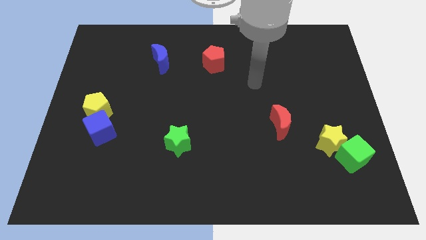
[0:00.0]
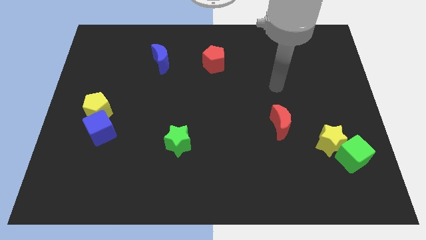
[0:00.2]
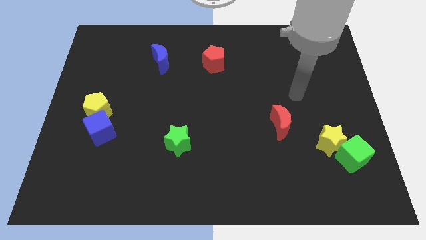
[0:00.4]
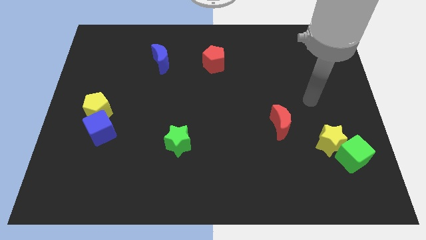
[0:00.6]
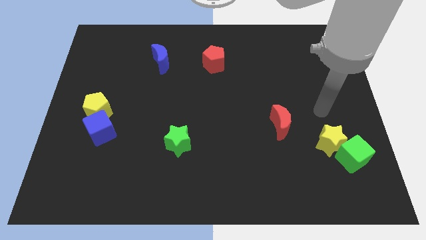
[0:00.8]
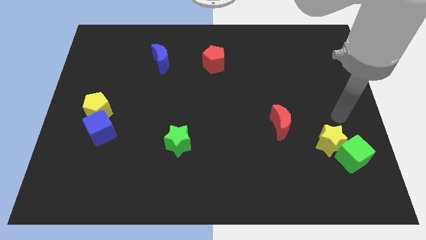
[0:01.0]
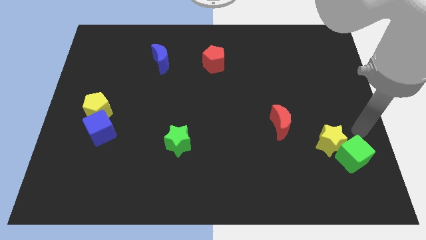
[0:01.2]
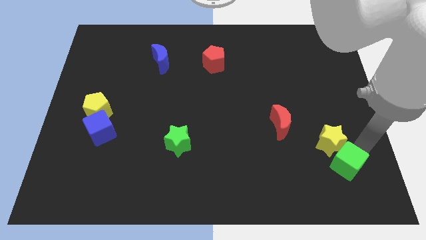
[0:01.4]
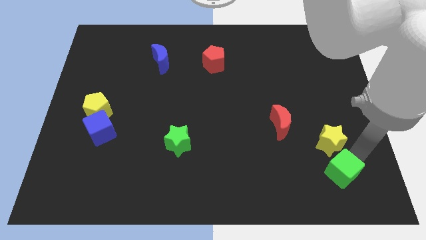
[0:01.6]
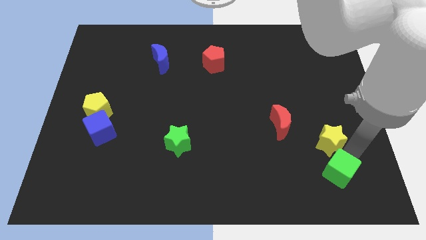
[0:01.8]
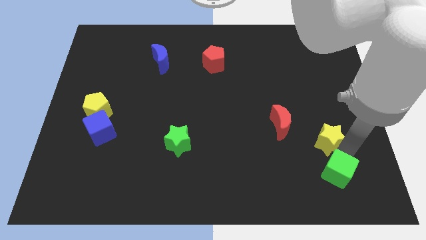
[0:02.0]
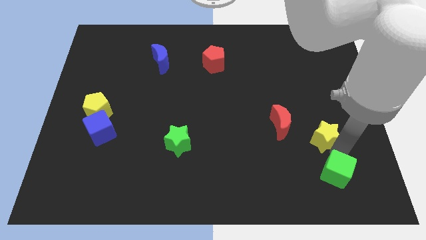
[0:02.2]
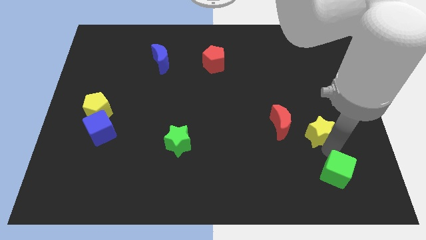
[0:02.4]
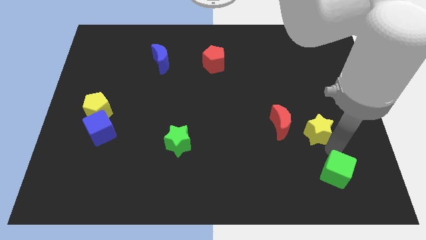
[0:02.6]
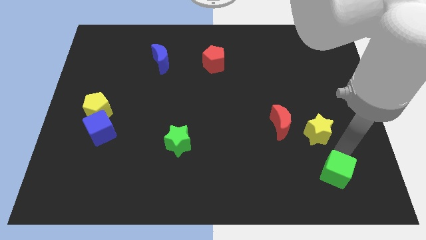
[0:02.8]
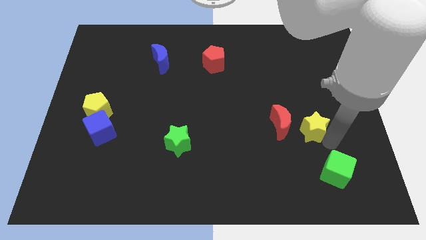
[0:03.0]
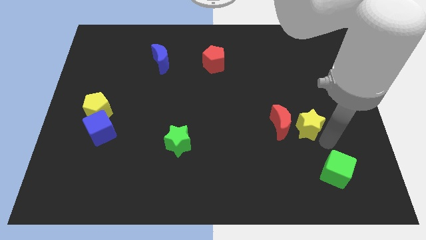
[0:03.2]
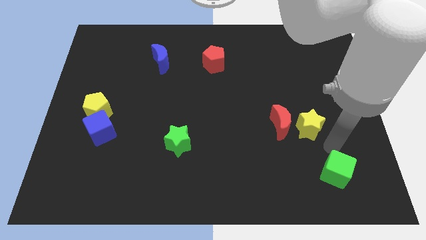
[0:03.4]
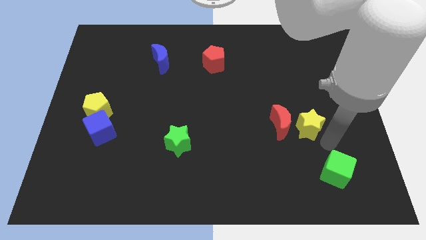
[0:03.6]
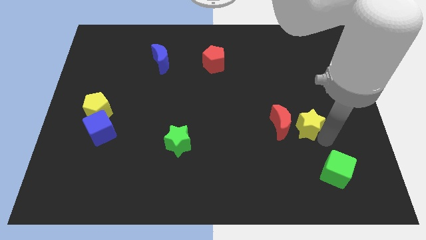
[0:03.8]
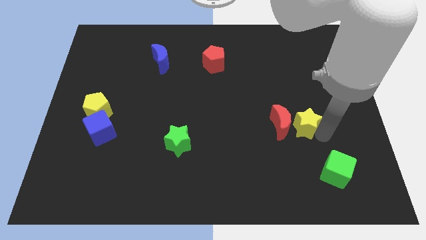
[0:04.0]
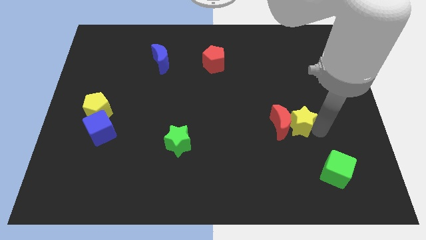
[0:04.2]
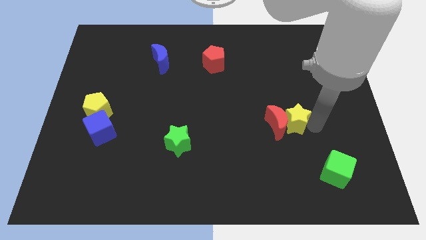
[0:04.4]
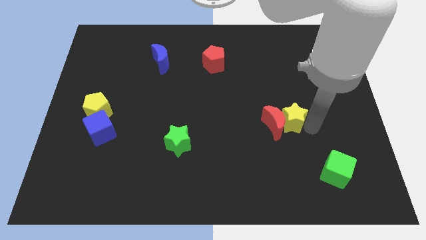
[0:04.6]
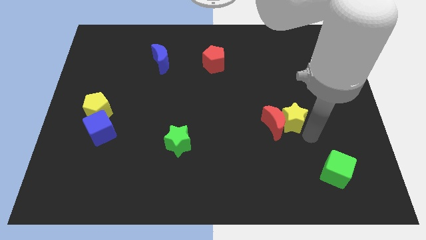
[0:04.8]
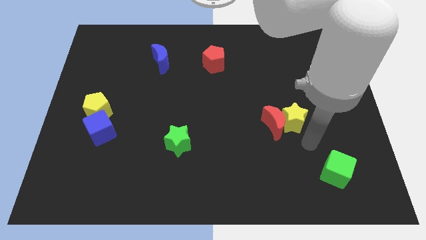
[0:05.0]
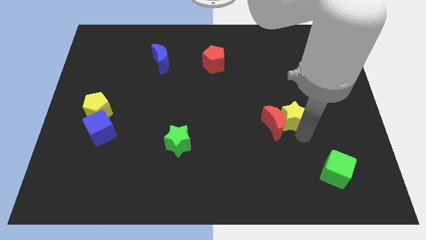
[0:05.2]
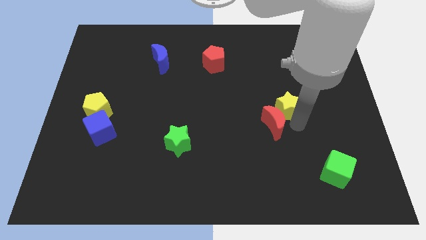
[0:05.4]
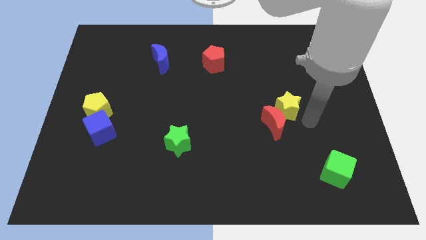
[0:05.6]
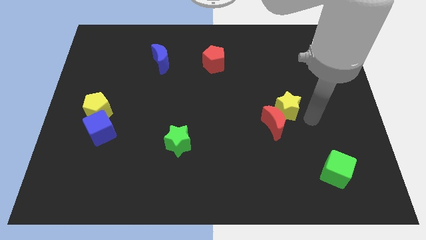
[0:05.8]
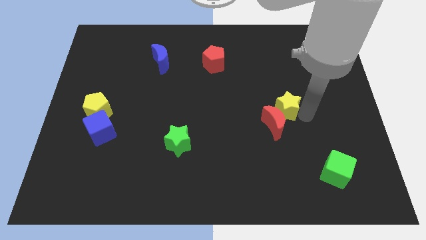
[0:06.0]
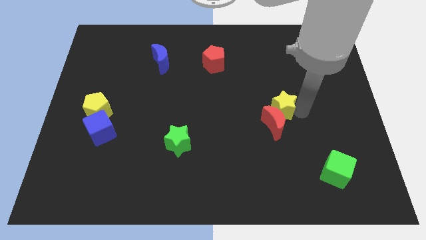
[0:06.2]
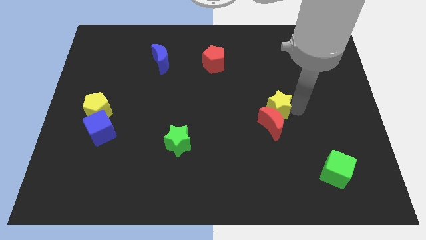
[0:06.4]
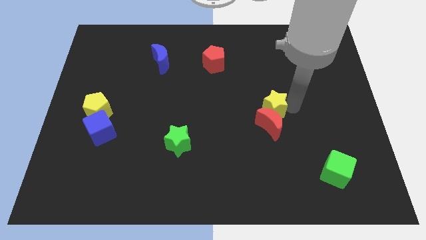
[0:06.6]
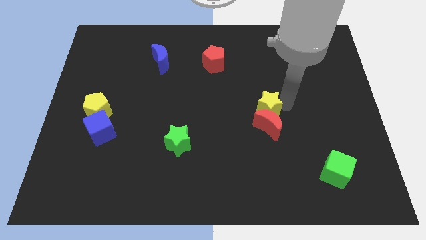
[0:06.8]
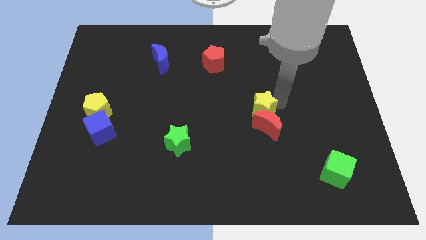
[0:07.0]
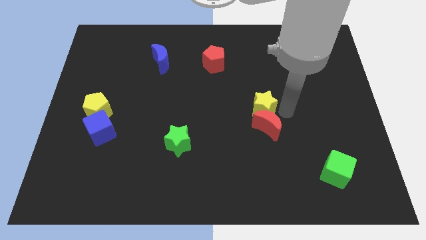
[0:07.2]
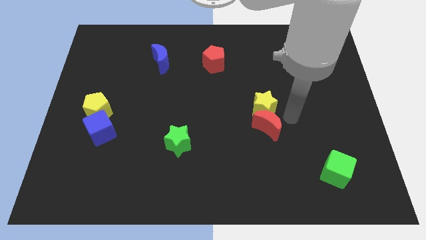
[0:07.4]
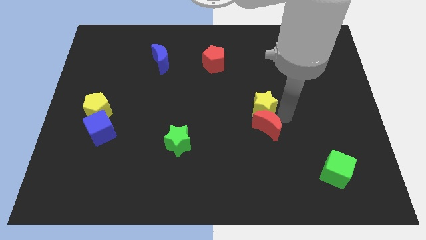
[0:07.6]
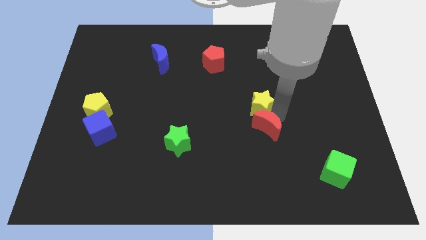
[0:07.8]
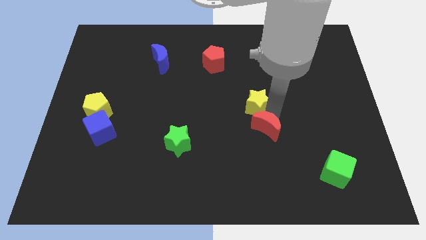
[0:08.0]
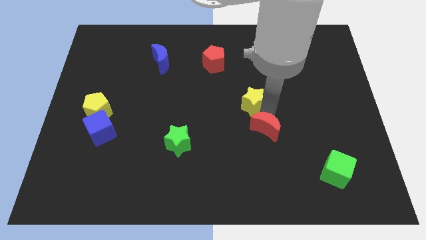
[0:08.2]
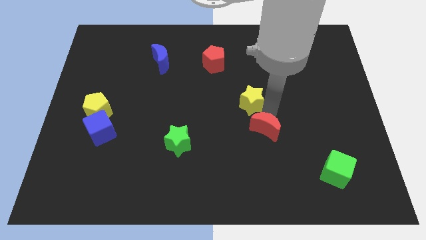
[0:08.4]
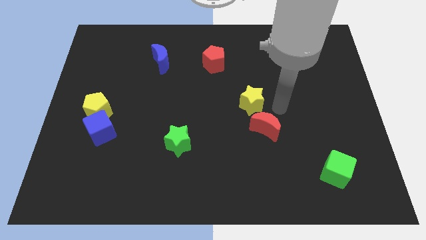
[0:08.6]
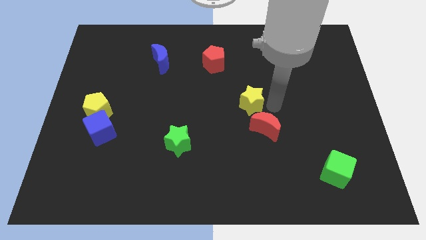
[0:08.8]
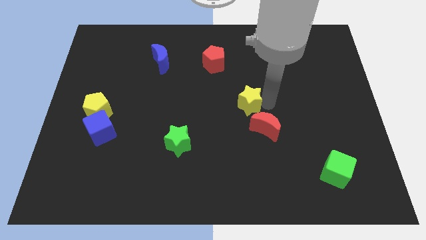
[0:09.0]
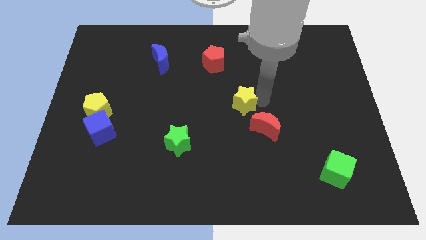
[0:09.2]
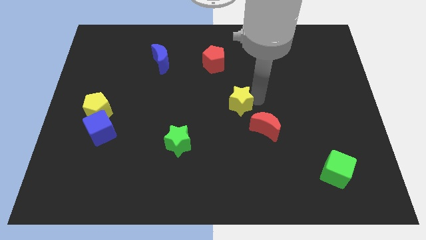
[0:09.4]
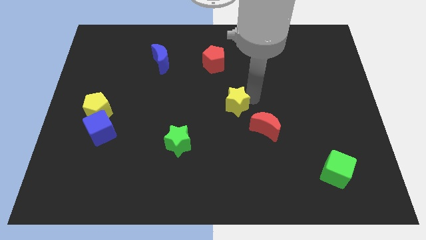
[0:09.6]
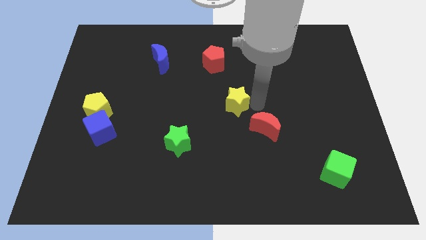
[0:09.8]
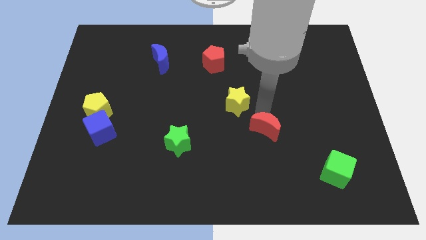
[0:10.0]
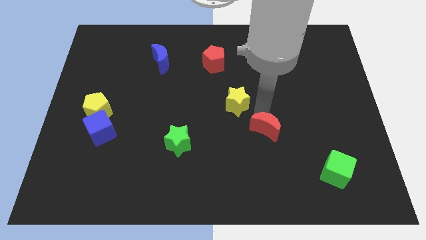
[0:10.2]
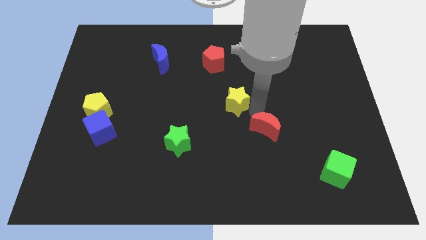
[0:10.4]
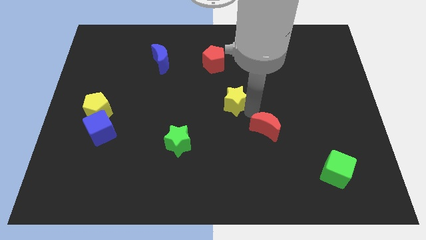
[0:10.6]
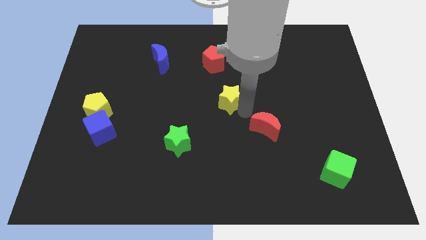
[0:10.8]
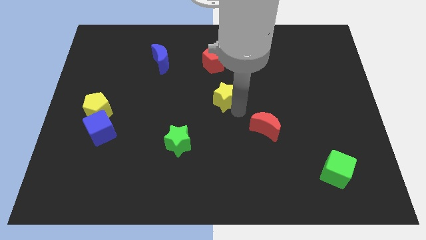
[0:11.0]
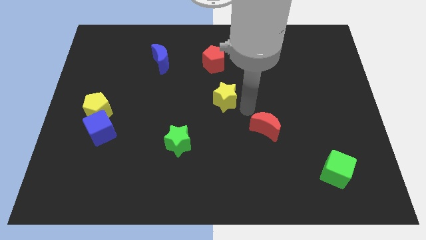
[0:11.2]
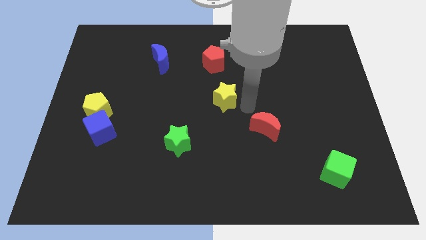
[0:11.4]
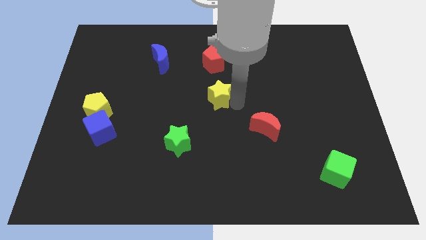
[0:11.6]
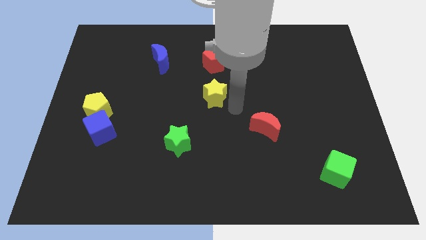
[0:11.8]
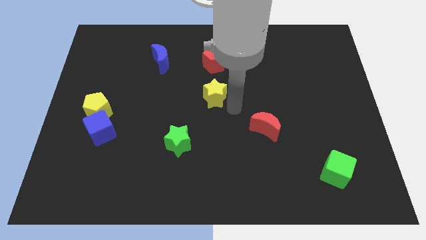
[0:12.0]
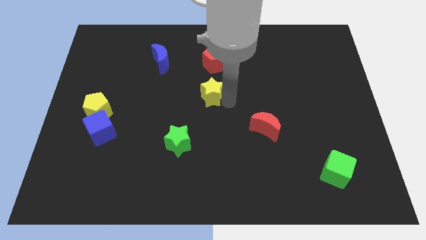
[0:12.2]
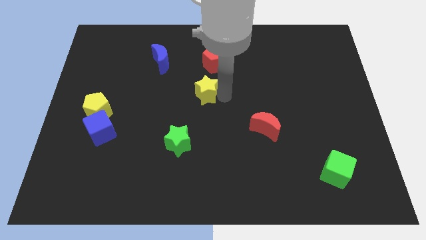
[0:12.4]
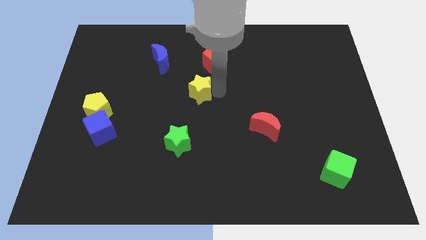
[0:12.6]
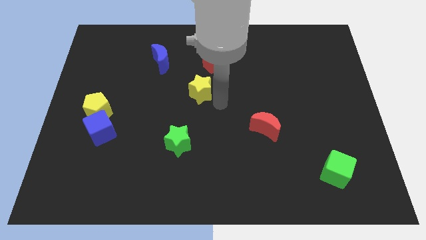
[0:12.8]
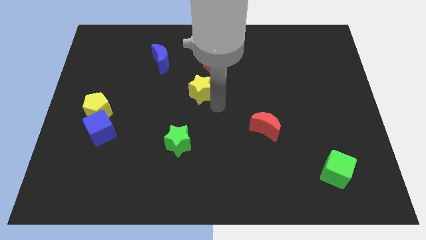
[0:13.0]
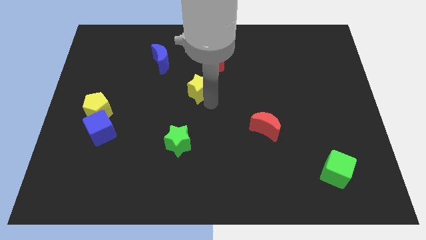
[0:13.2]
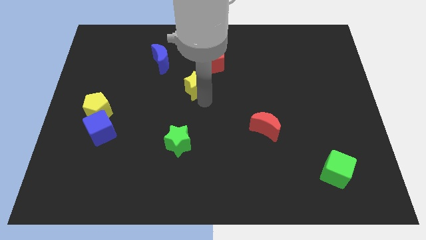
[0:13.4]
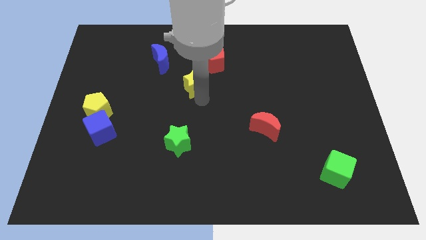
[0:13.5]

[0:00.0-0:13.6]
move the yellow star to the bottom right side of the blue moon

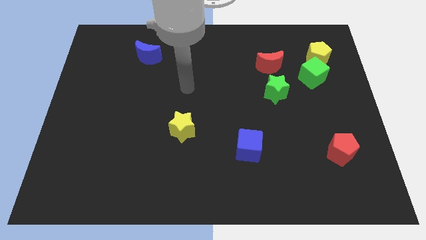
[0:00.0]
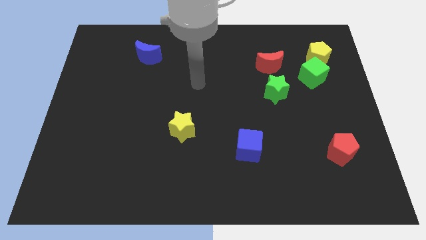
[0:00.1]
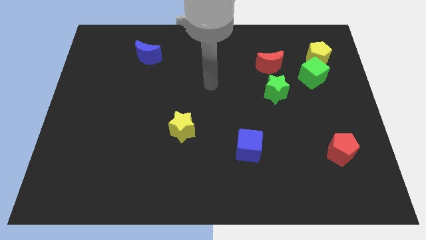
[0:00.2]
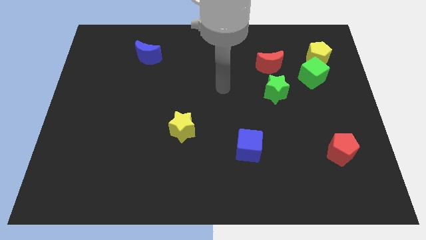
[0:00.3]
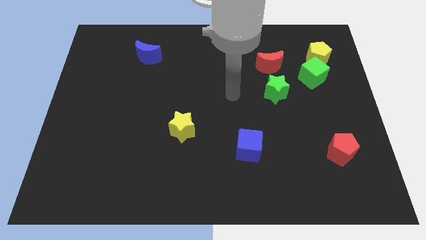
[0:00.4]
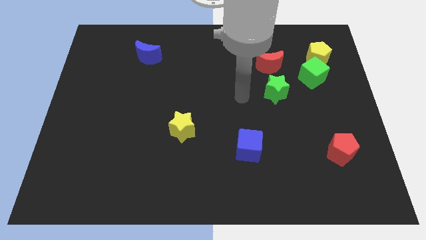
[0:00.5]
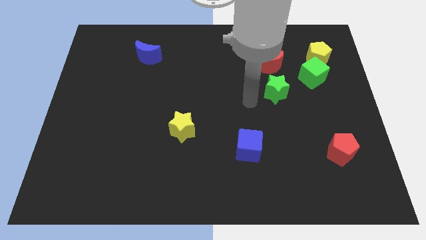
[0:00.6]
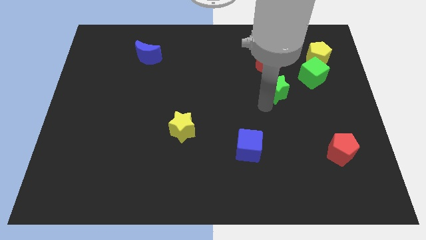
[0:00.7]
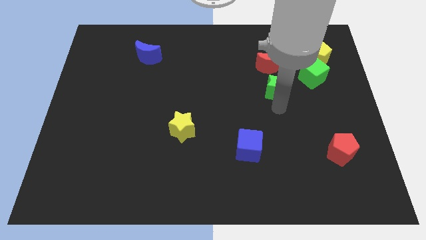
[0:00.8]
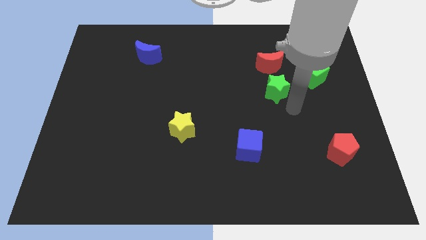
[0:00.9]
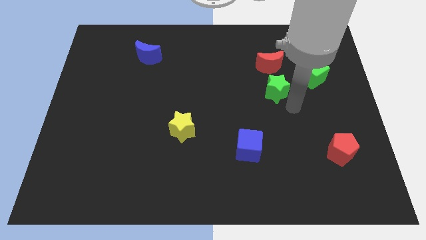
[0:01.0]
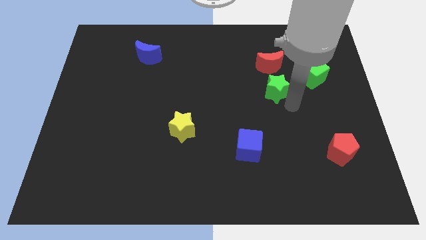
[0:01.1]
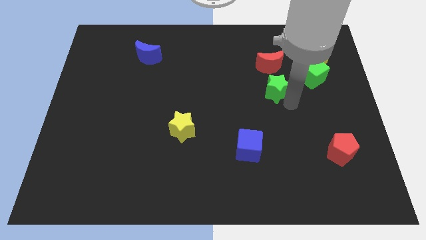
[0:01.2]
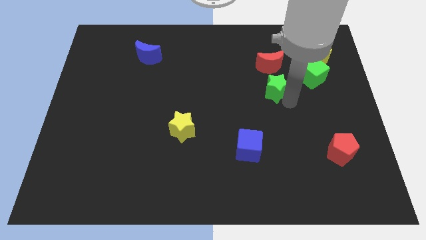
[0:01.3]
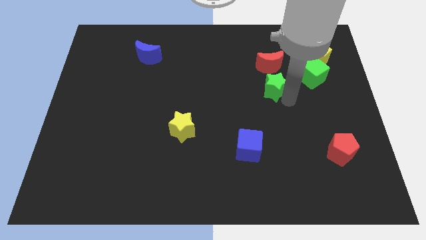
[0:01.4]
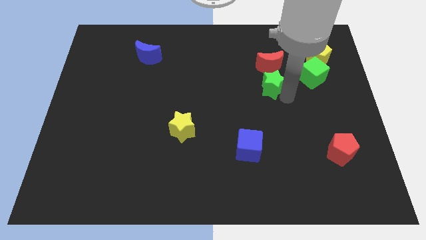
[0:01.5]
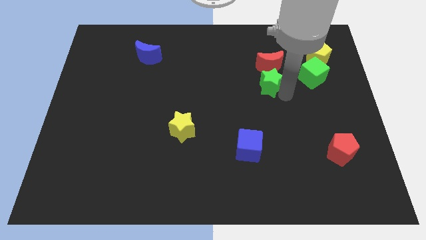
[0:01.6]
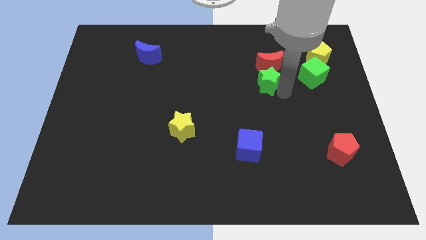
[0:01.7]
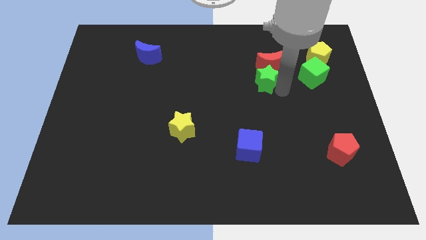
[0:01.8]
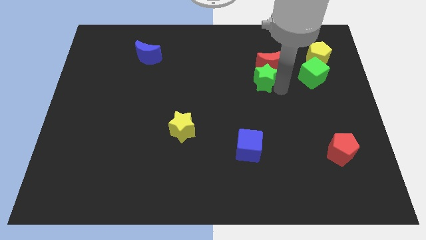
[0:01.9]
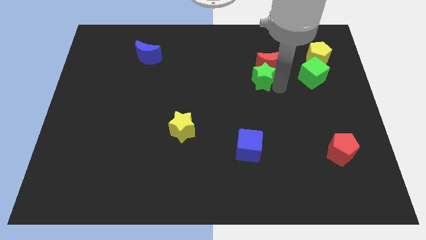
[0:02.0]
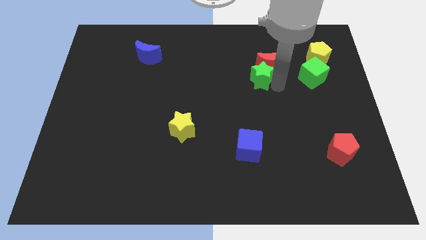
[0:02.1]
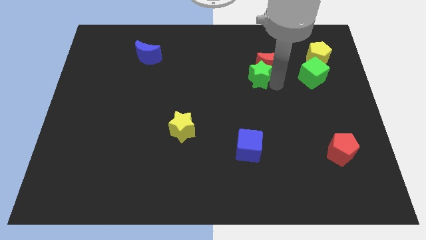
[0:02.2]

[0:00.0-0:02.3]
move the green star just left of the red moon
